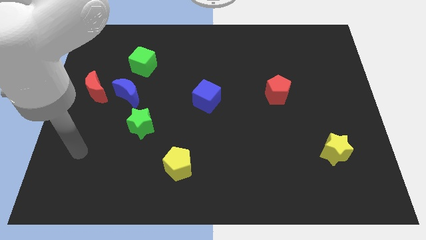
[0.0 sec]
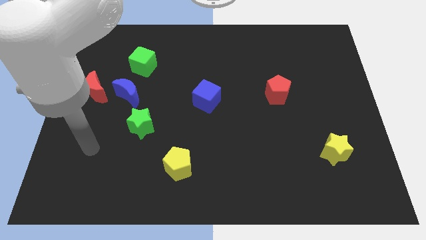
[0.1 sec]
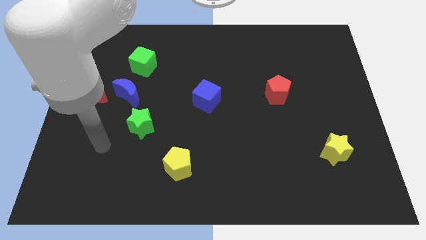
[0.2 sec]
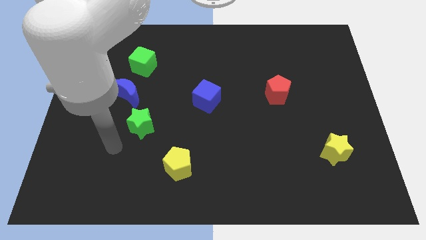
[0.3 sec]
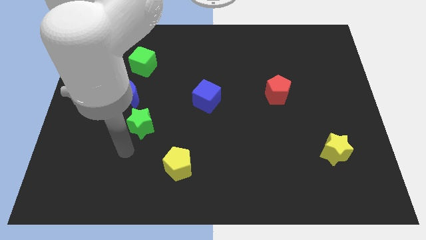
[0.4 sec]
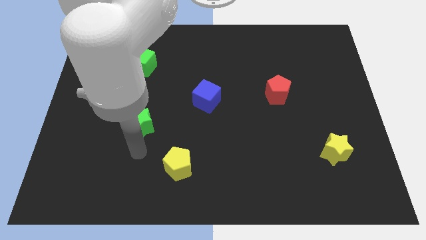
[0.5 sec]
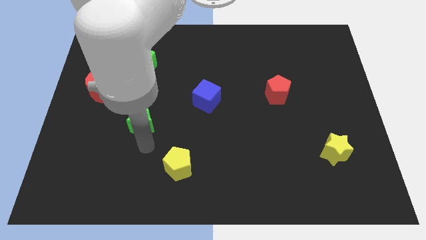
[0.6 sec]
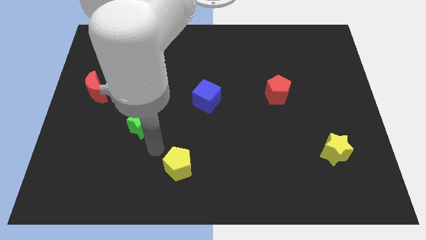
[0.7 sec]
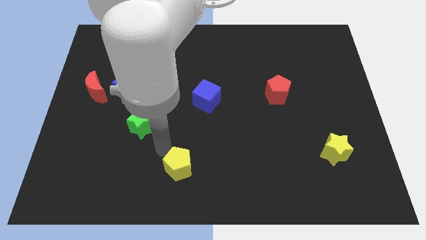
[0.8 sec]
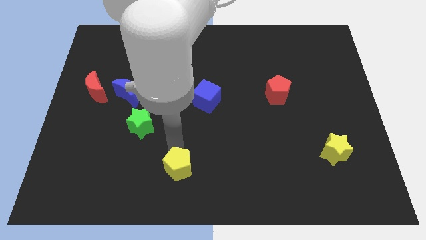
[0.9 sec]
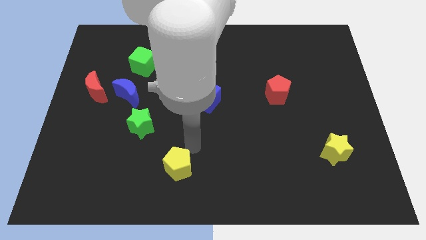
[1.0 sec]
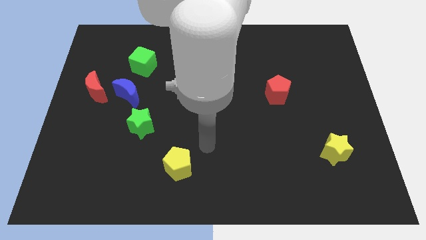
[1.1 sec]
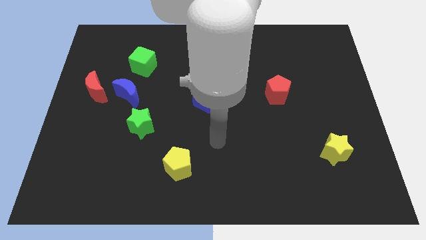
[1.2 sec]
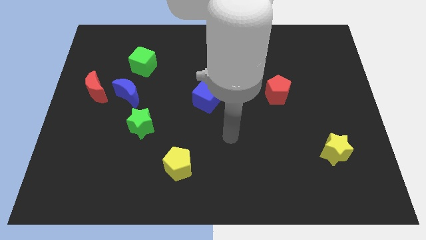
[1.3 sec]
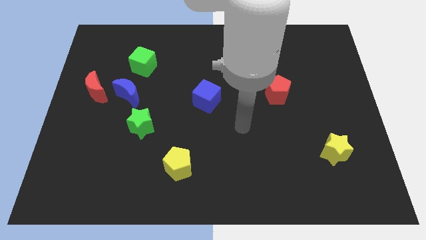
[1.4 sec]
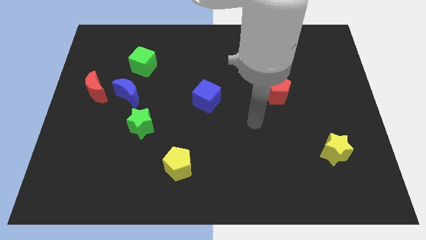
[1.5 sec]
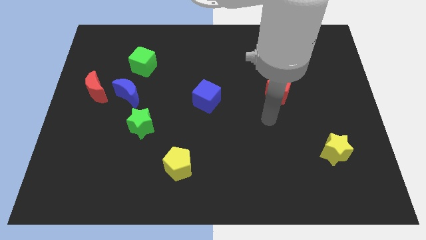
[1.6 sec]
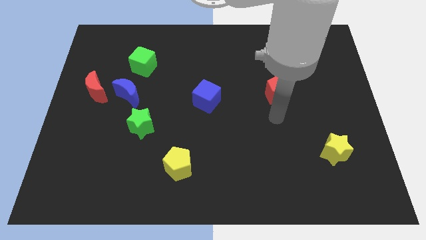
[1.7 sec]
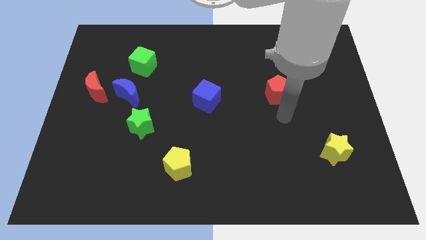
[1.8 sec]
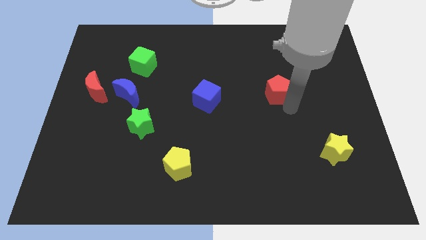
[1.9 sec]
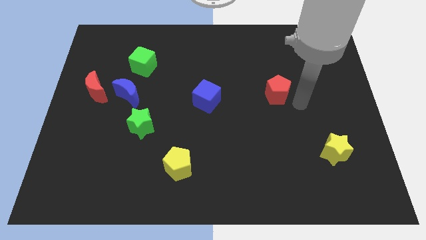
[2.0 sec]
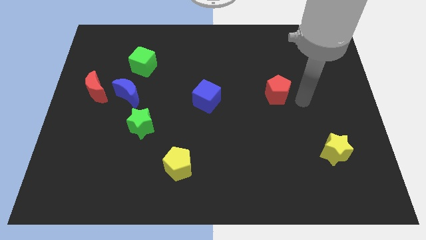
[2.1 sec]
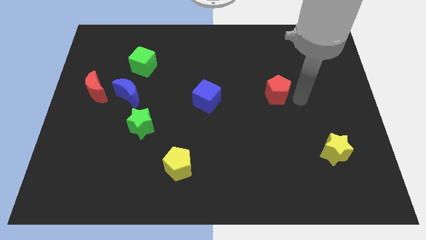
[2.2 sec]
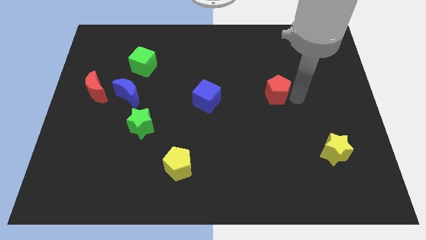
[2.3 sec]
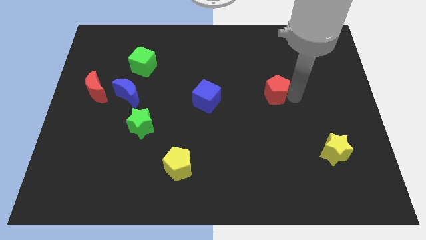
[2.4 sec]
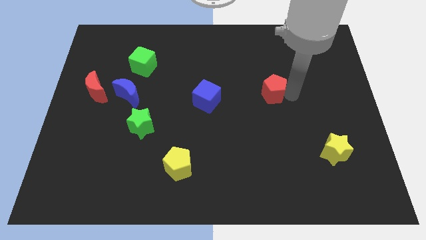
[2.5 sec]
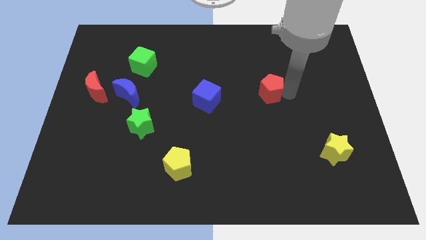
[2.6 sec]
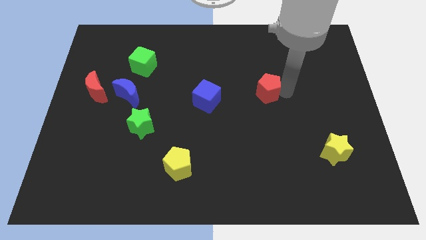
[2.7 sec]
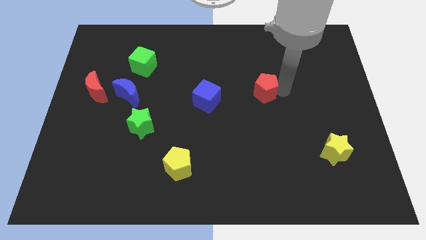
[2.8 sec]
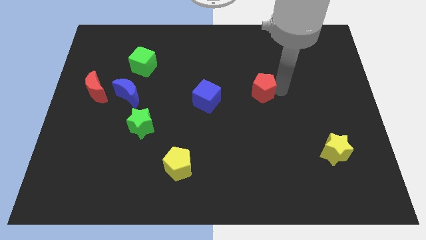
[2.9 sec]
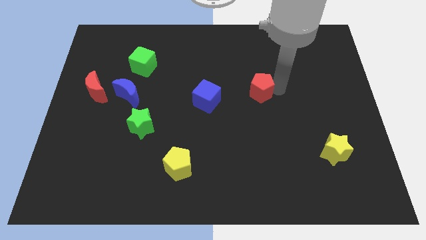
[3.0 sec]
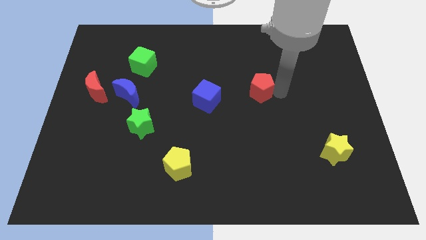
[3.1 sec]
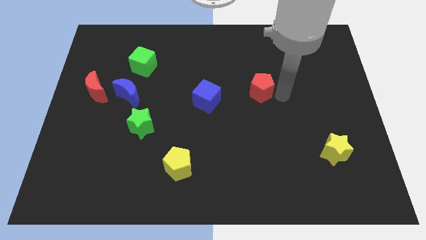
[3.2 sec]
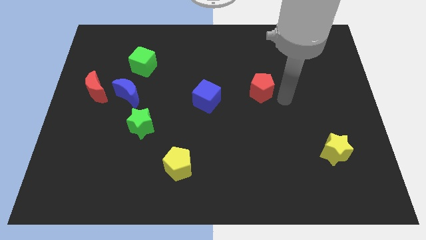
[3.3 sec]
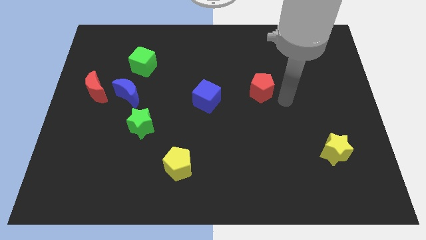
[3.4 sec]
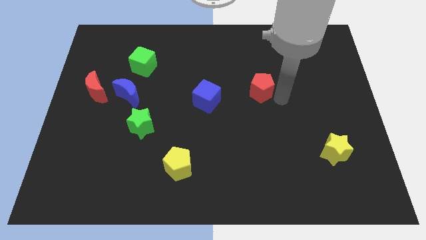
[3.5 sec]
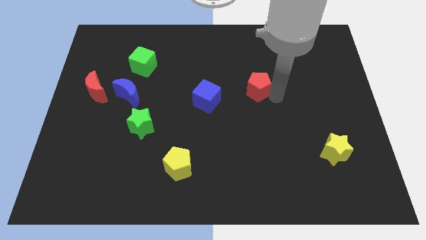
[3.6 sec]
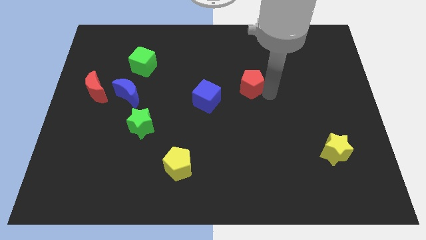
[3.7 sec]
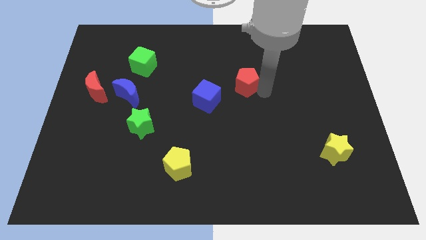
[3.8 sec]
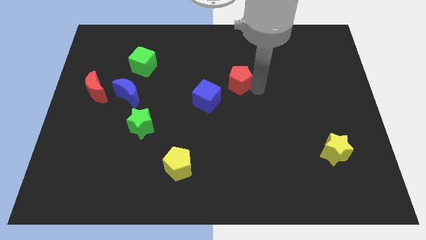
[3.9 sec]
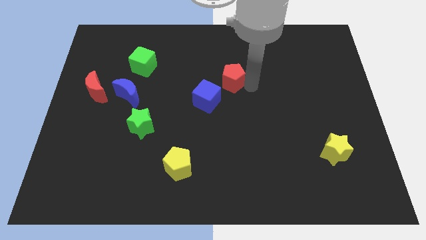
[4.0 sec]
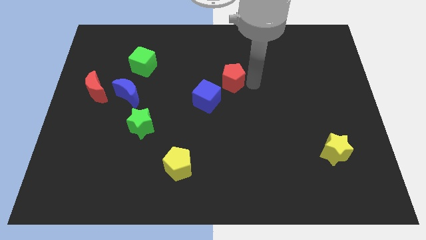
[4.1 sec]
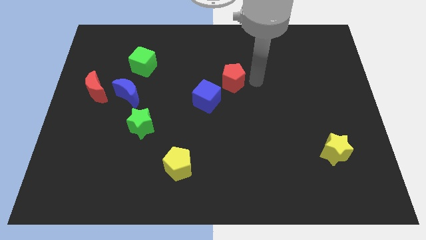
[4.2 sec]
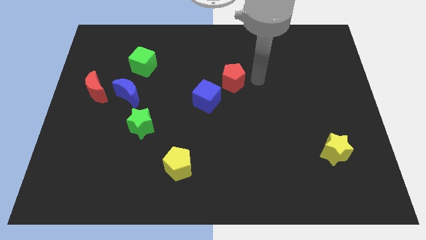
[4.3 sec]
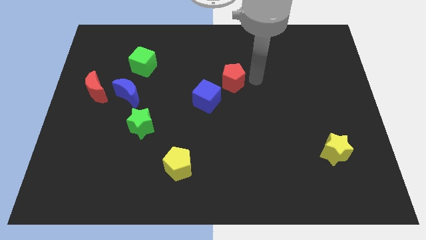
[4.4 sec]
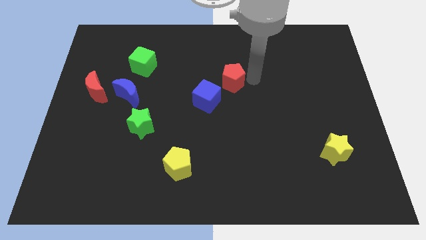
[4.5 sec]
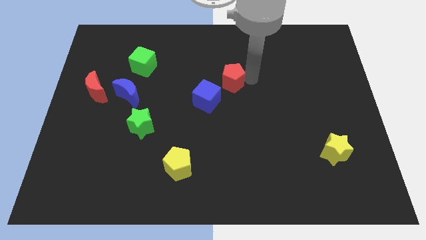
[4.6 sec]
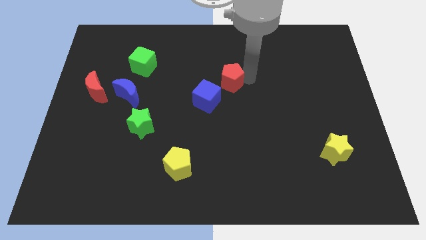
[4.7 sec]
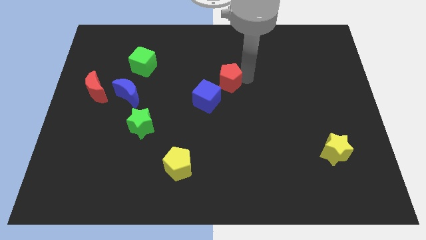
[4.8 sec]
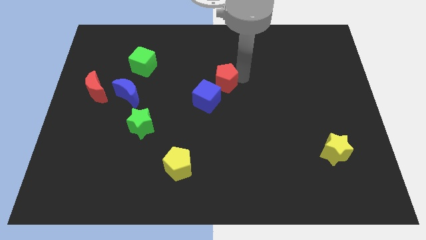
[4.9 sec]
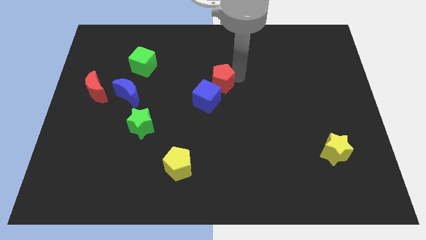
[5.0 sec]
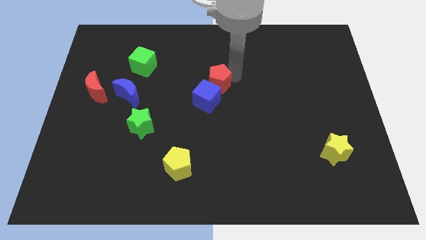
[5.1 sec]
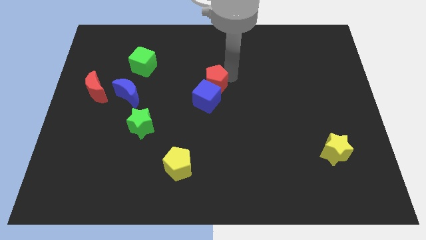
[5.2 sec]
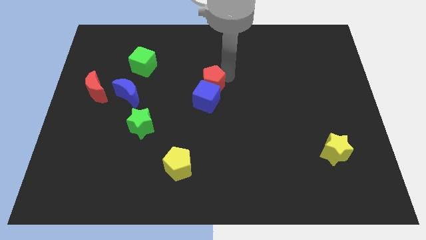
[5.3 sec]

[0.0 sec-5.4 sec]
slide the red pentagon diagonally up and to the left of the blue cube

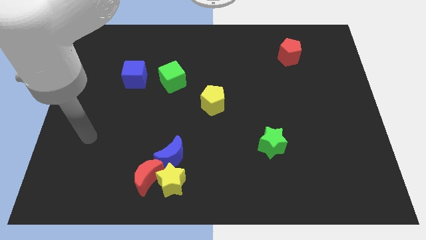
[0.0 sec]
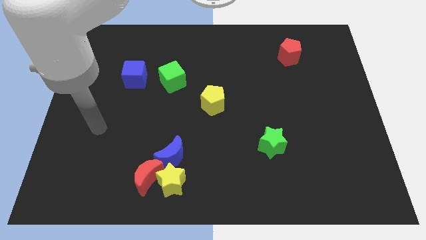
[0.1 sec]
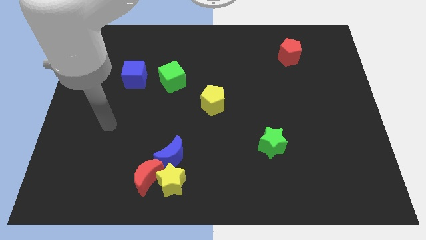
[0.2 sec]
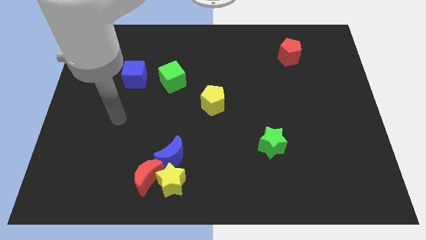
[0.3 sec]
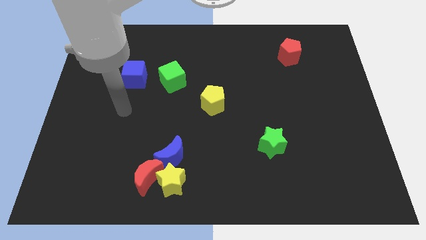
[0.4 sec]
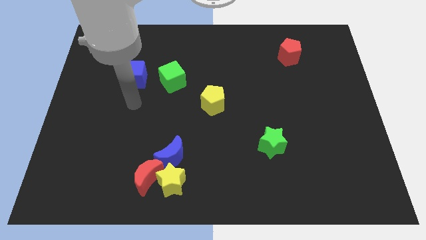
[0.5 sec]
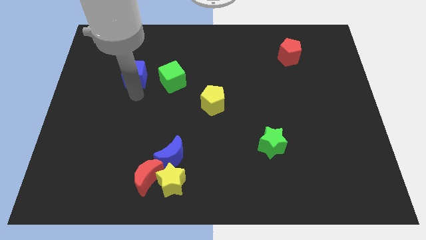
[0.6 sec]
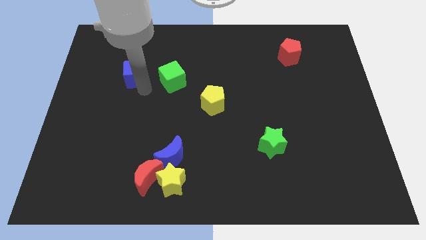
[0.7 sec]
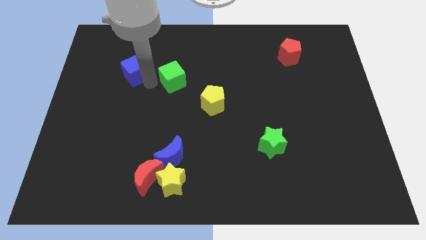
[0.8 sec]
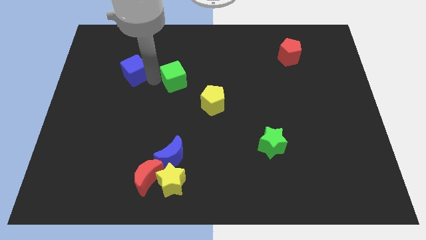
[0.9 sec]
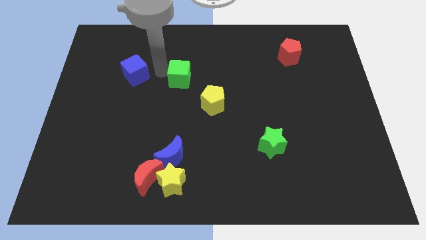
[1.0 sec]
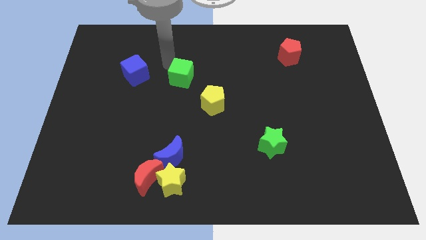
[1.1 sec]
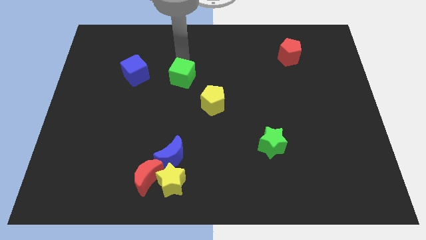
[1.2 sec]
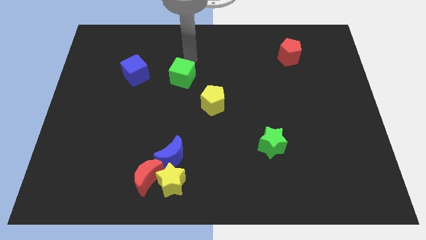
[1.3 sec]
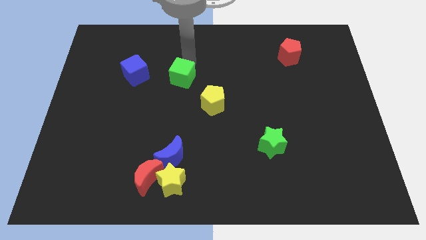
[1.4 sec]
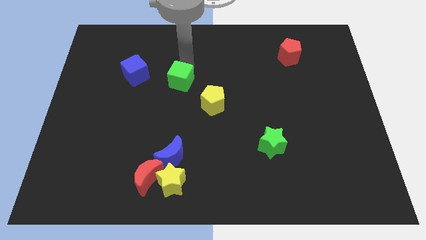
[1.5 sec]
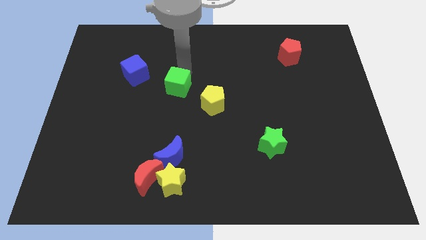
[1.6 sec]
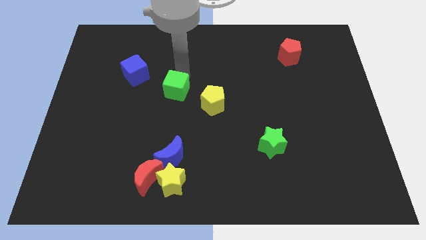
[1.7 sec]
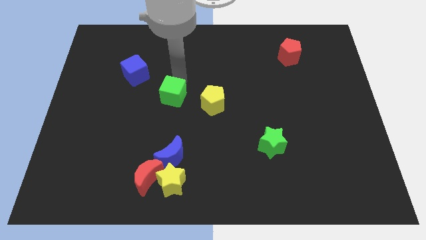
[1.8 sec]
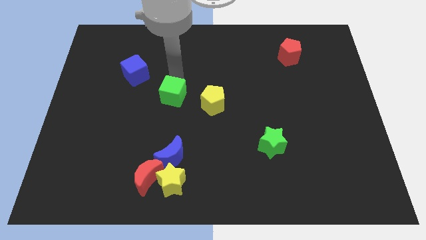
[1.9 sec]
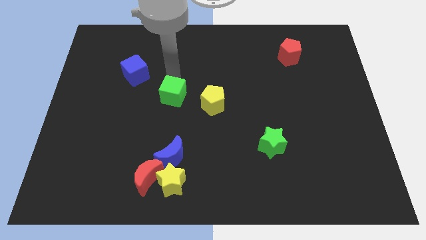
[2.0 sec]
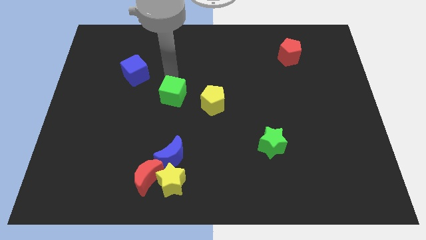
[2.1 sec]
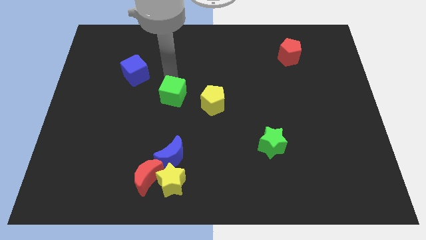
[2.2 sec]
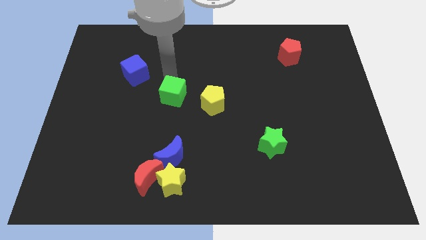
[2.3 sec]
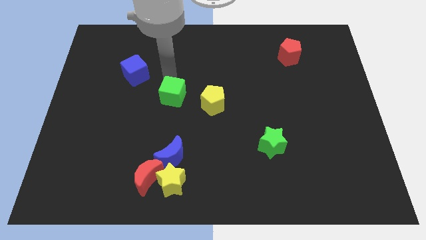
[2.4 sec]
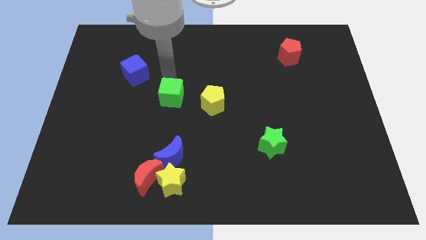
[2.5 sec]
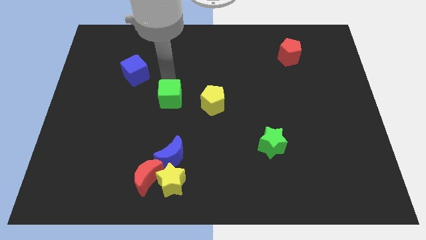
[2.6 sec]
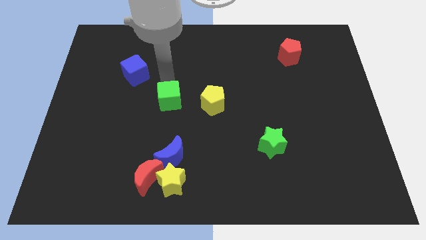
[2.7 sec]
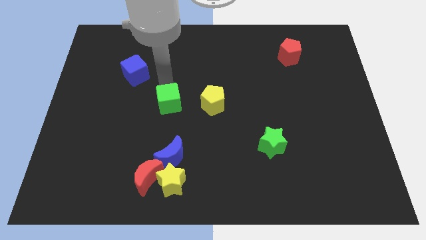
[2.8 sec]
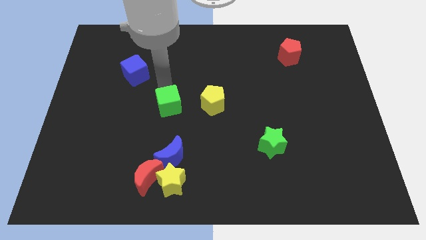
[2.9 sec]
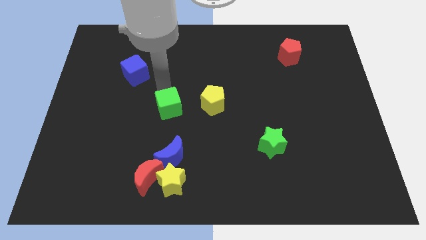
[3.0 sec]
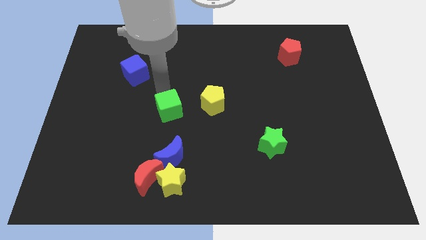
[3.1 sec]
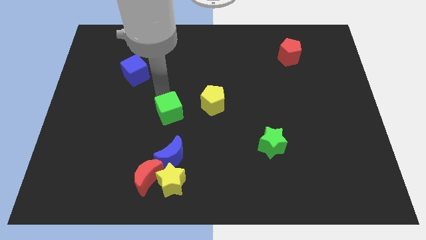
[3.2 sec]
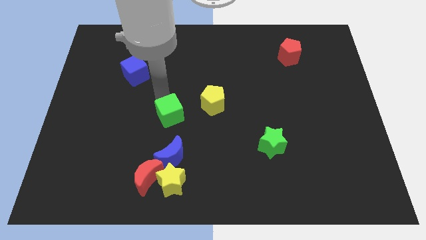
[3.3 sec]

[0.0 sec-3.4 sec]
put the green cube to the bottom left of the yellow pentagon
